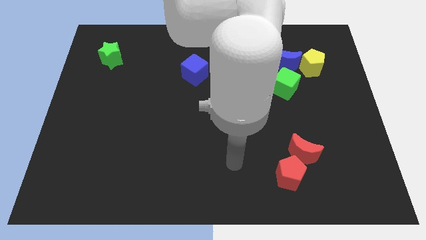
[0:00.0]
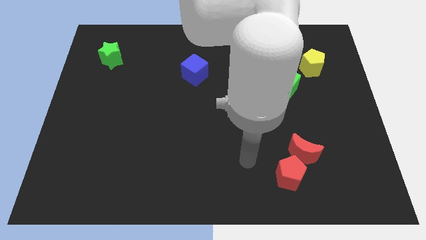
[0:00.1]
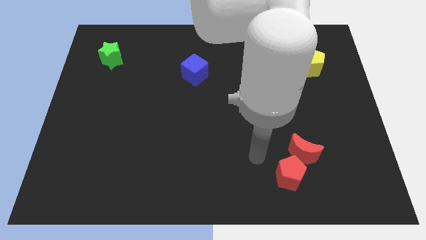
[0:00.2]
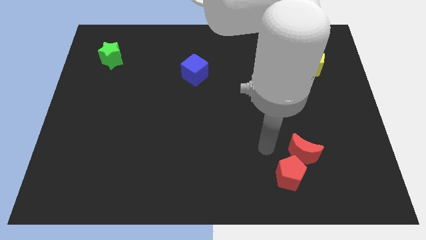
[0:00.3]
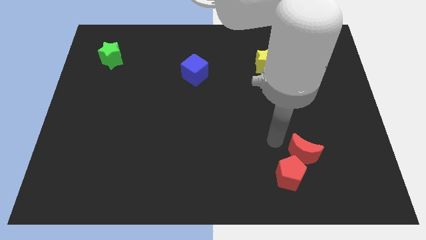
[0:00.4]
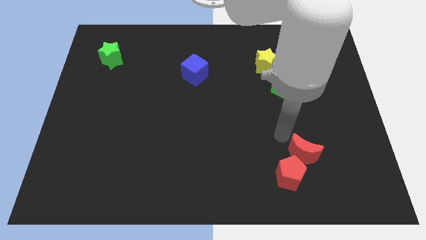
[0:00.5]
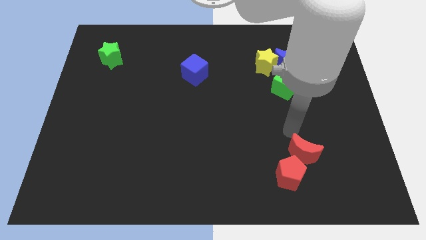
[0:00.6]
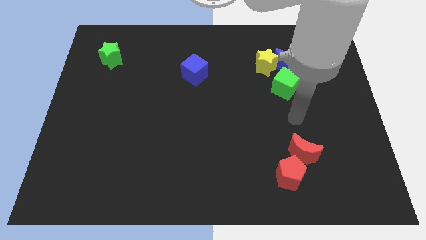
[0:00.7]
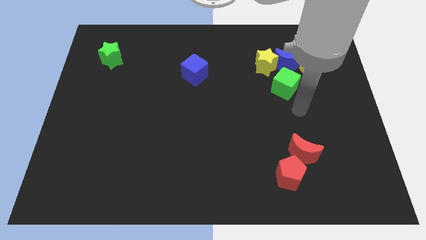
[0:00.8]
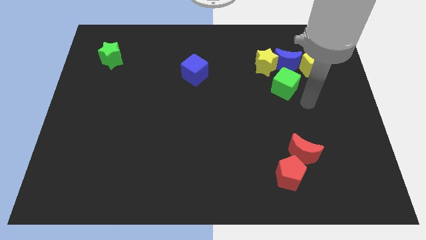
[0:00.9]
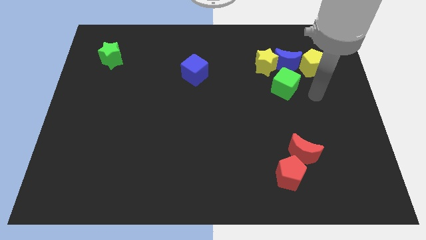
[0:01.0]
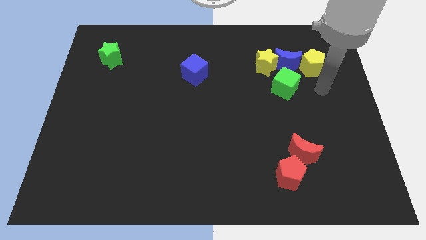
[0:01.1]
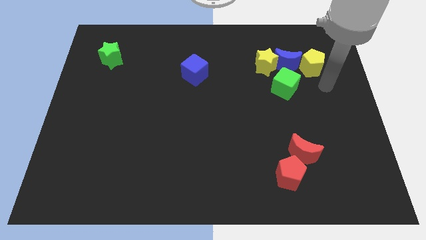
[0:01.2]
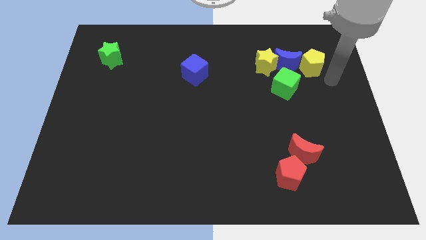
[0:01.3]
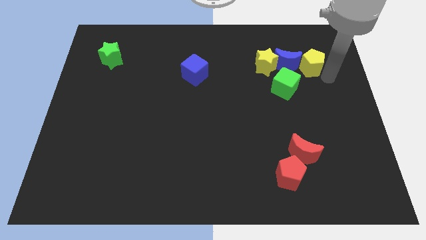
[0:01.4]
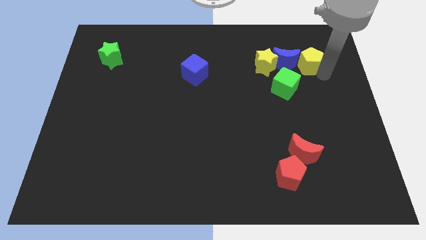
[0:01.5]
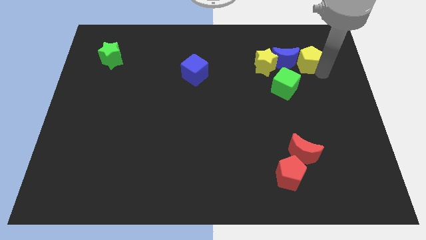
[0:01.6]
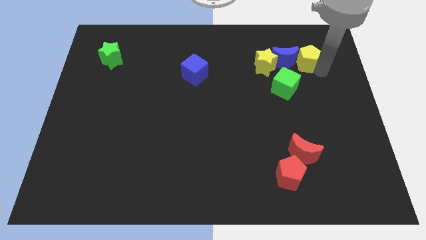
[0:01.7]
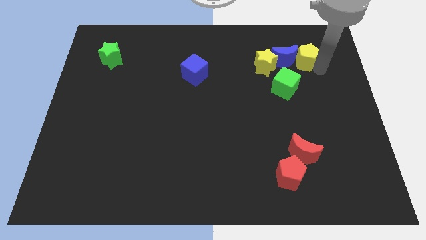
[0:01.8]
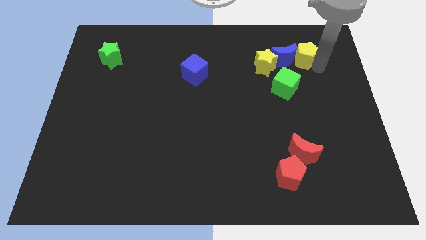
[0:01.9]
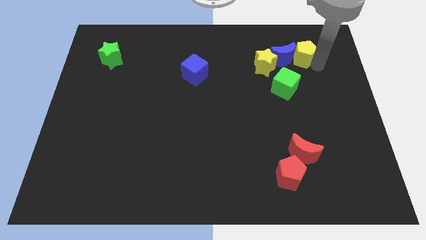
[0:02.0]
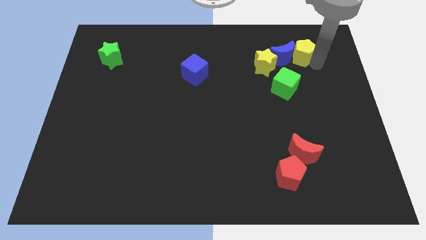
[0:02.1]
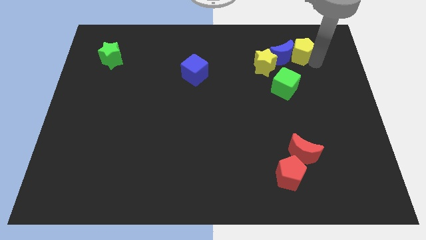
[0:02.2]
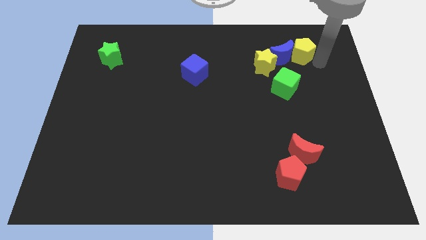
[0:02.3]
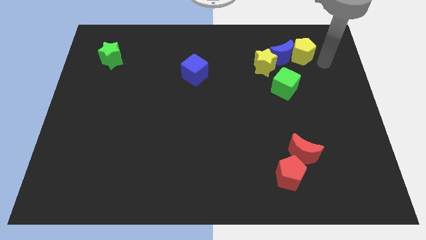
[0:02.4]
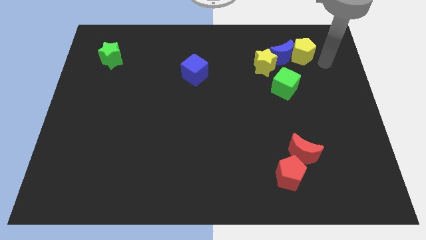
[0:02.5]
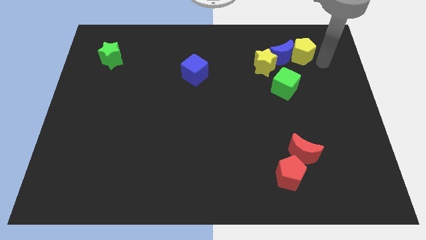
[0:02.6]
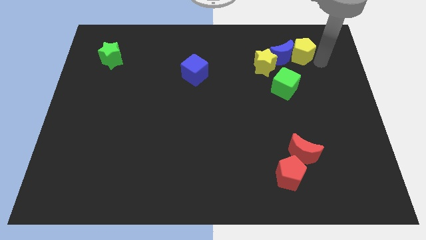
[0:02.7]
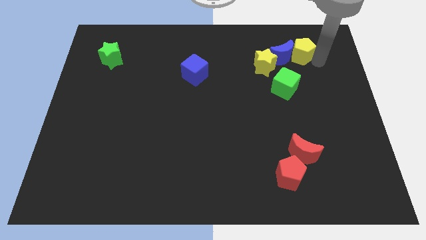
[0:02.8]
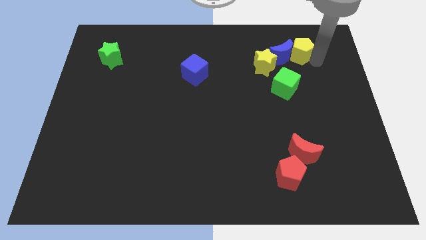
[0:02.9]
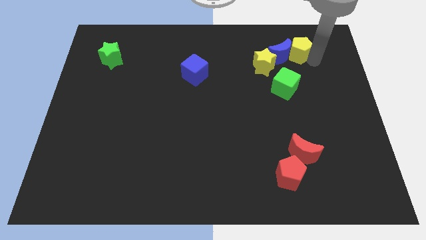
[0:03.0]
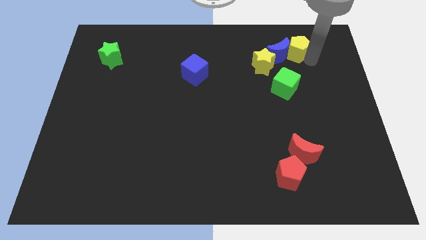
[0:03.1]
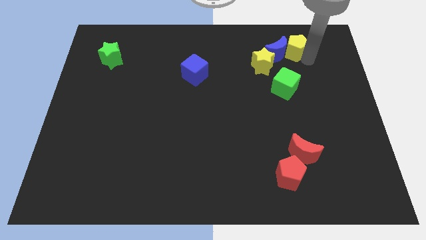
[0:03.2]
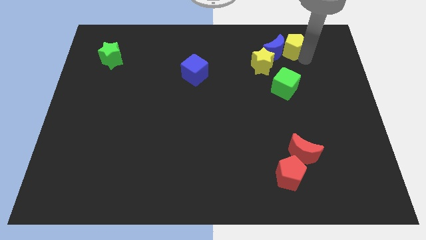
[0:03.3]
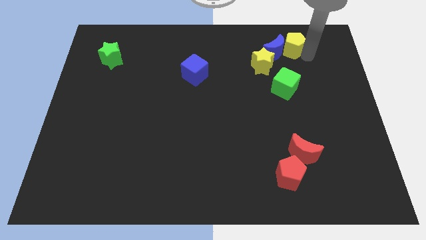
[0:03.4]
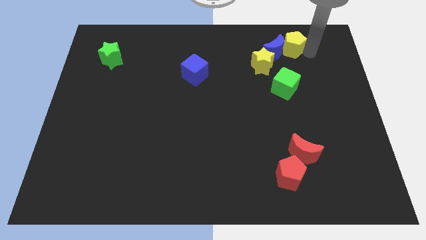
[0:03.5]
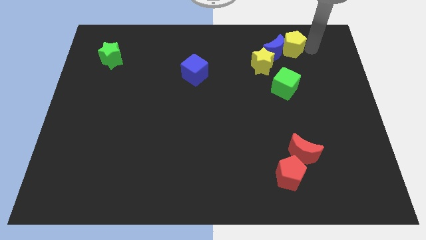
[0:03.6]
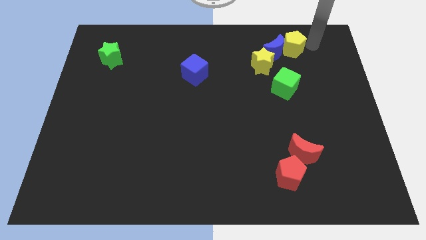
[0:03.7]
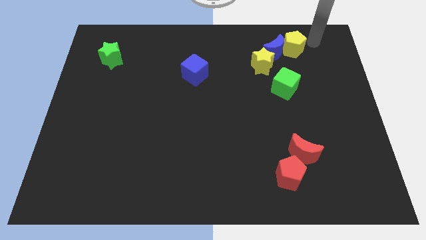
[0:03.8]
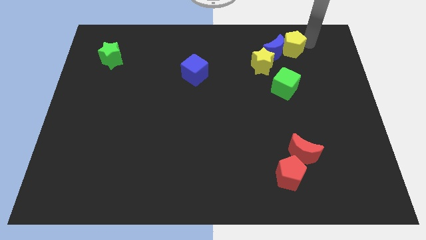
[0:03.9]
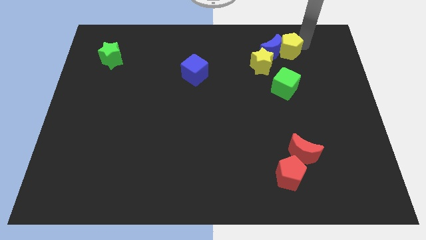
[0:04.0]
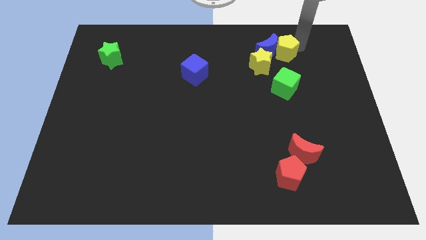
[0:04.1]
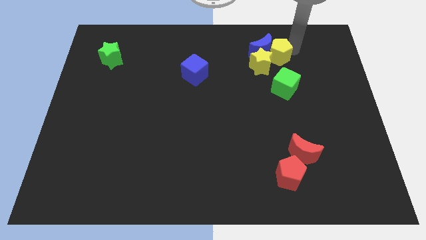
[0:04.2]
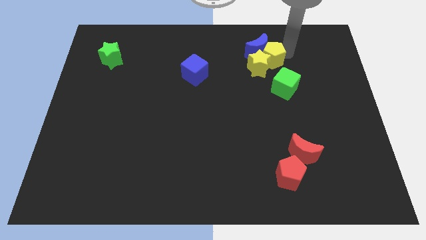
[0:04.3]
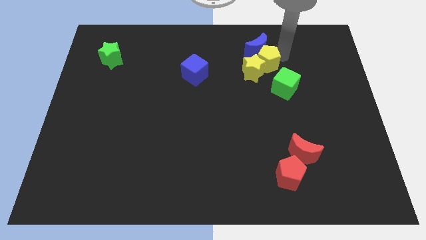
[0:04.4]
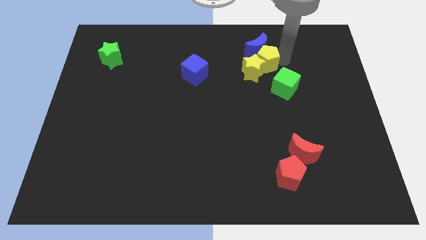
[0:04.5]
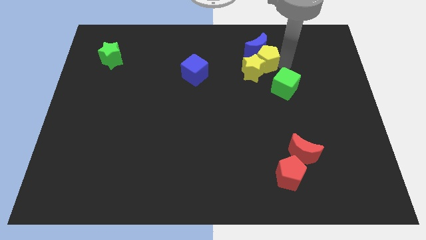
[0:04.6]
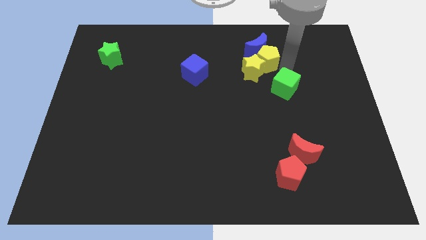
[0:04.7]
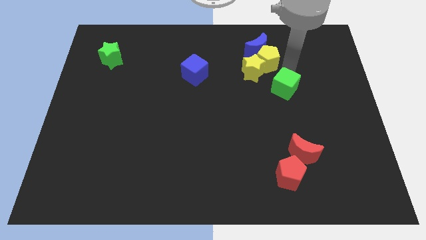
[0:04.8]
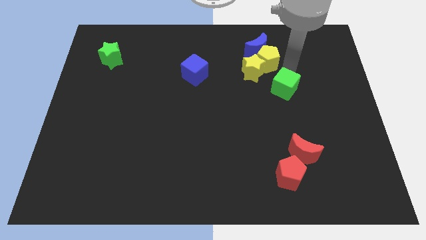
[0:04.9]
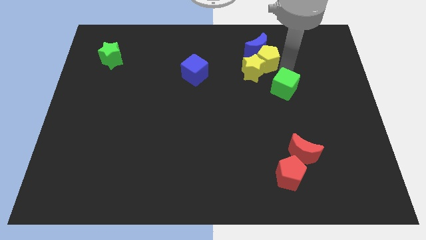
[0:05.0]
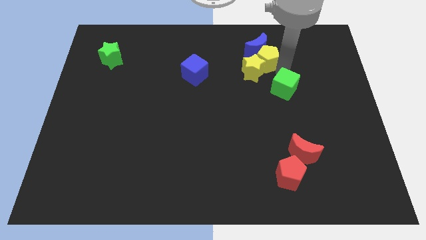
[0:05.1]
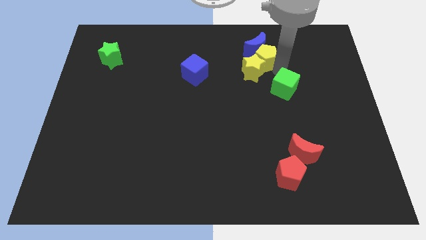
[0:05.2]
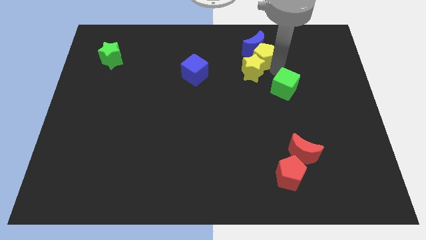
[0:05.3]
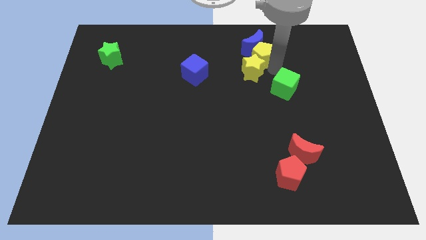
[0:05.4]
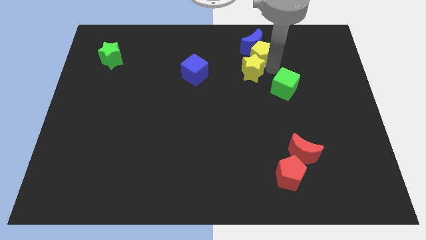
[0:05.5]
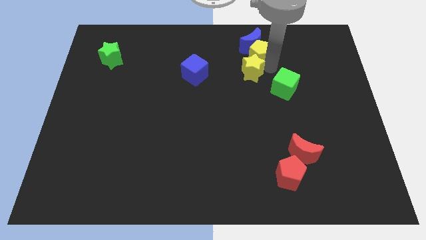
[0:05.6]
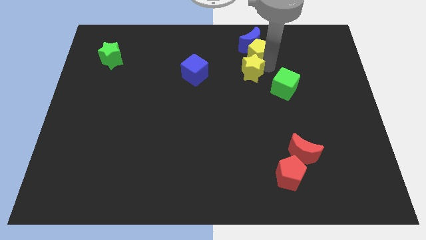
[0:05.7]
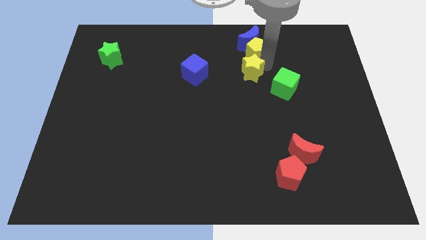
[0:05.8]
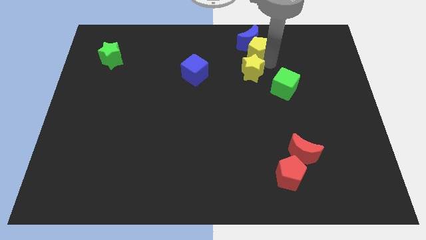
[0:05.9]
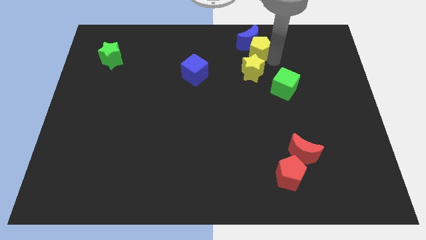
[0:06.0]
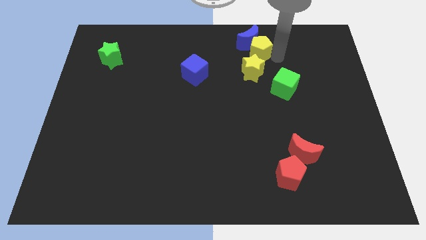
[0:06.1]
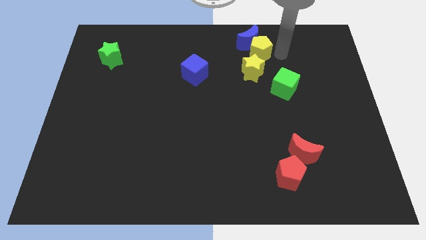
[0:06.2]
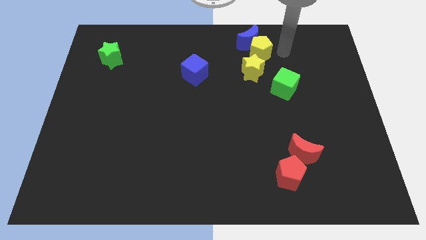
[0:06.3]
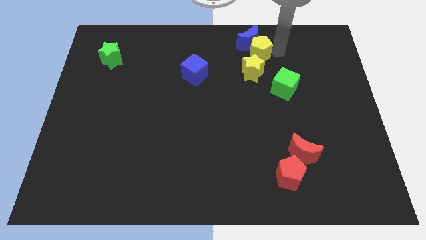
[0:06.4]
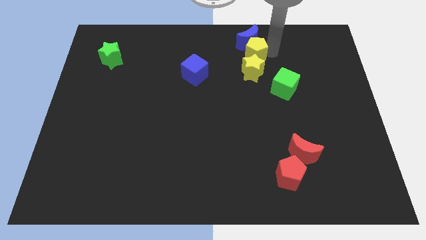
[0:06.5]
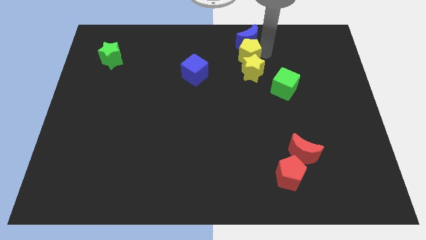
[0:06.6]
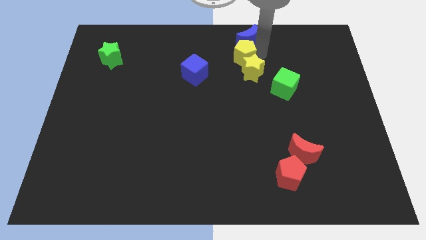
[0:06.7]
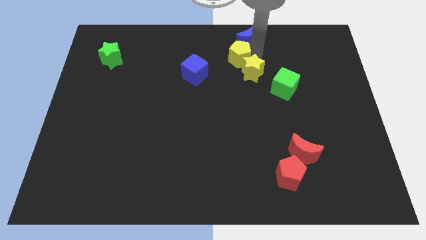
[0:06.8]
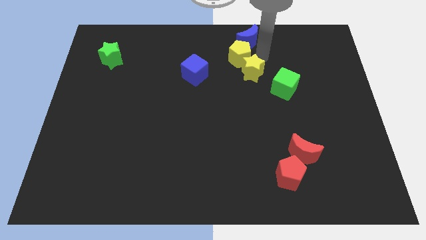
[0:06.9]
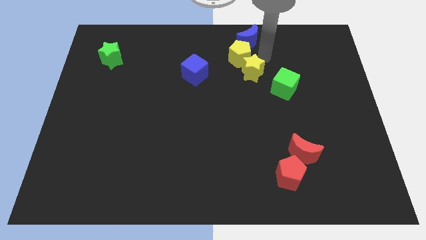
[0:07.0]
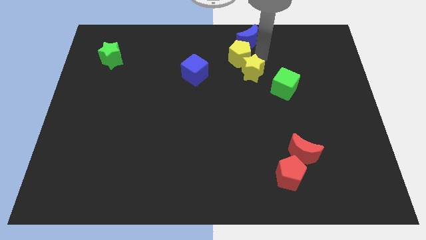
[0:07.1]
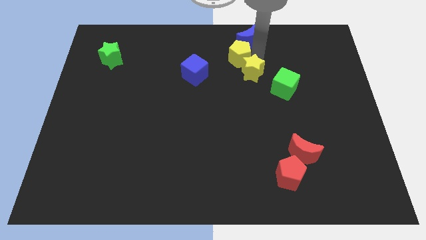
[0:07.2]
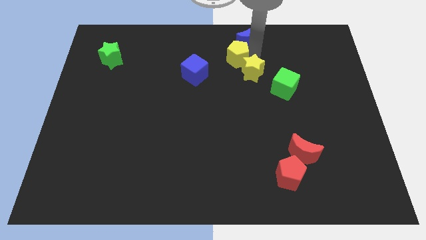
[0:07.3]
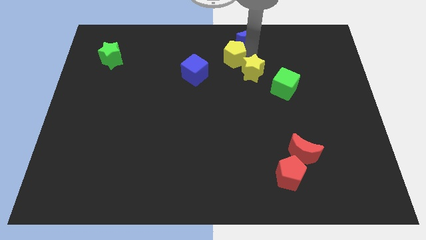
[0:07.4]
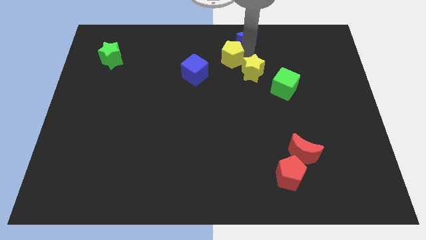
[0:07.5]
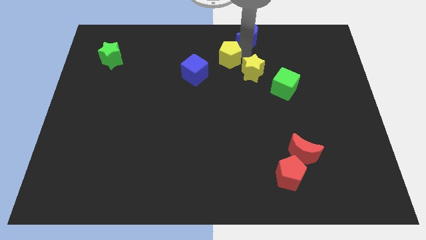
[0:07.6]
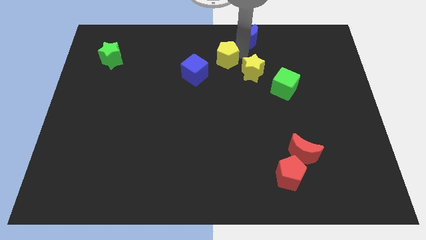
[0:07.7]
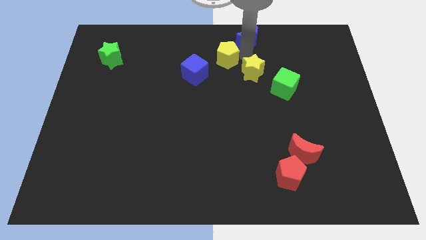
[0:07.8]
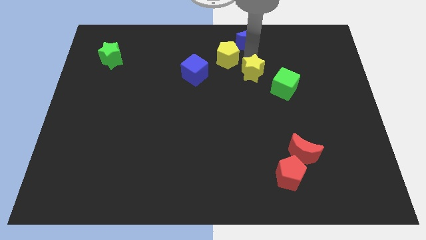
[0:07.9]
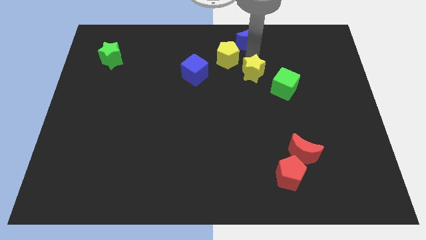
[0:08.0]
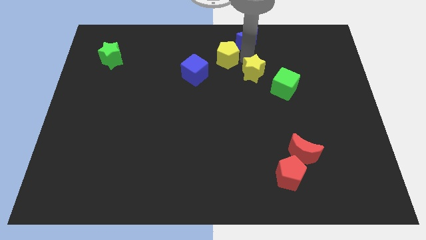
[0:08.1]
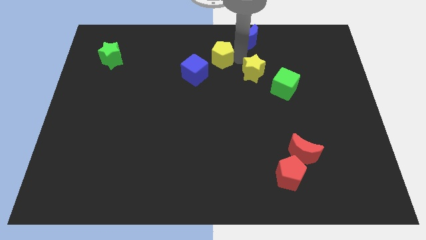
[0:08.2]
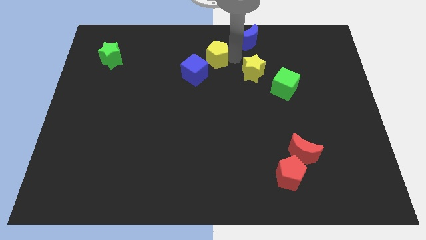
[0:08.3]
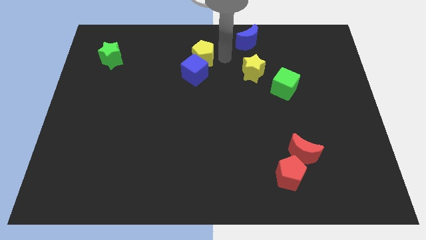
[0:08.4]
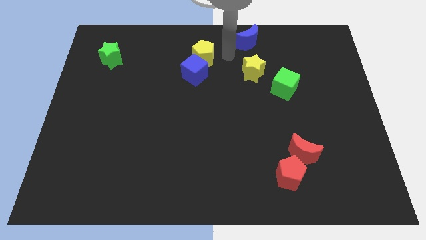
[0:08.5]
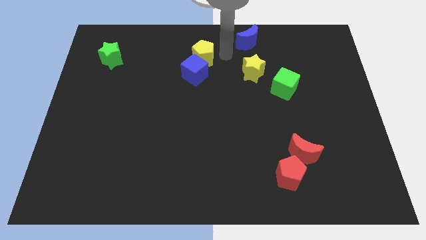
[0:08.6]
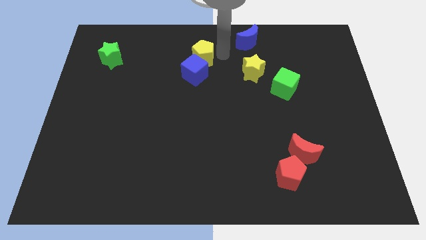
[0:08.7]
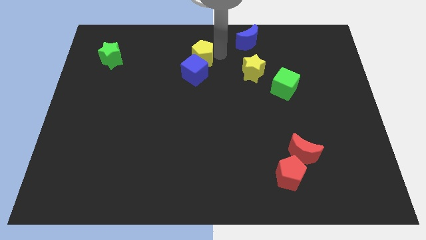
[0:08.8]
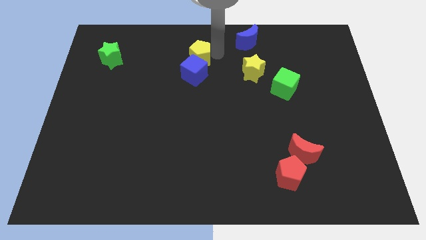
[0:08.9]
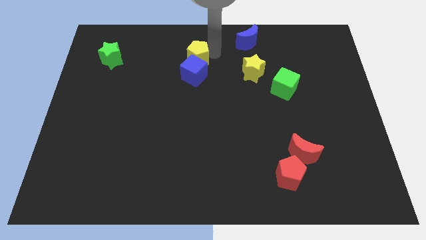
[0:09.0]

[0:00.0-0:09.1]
put the yellow pentagon to the top left side of the blue cube
